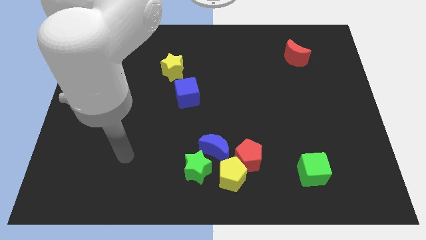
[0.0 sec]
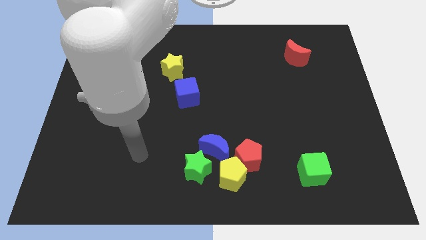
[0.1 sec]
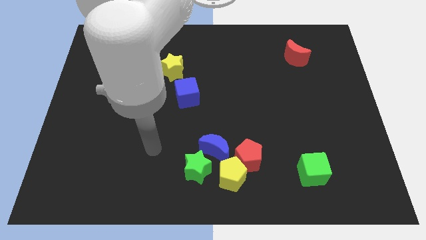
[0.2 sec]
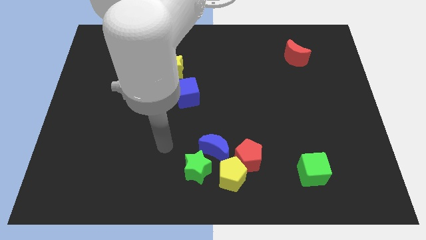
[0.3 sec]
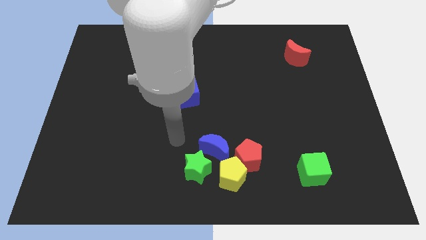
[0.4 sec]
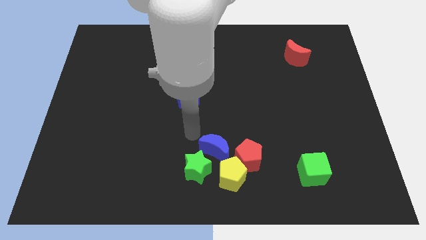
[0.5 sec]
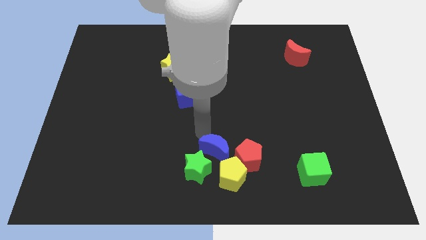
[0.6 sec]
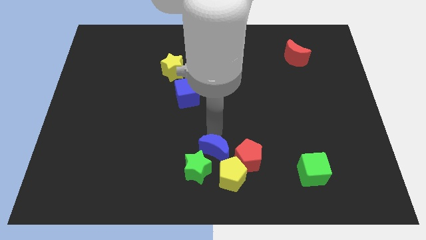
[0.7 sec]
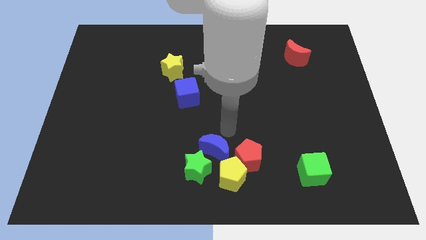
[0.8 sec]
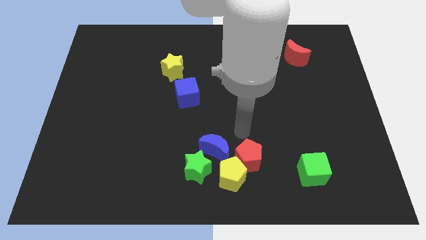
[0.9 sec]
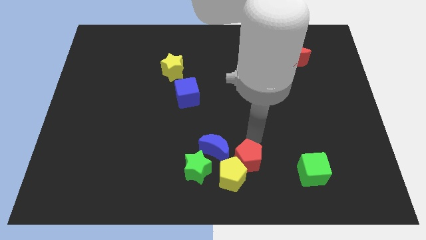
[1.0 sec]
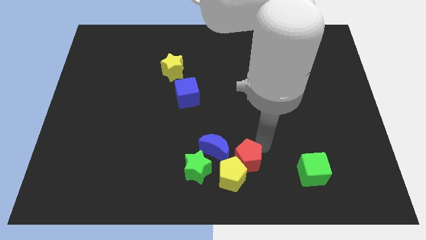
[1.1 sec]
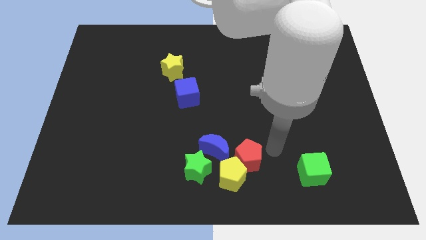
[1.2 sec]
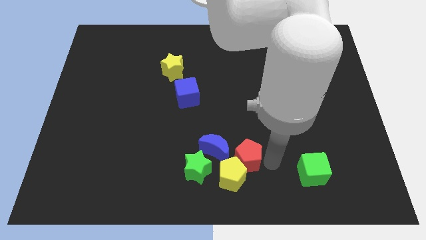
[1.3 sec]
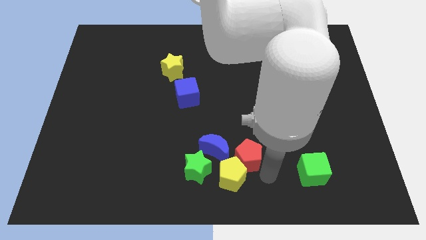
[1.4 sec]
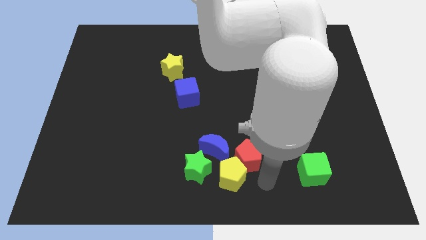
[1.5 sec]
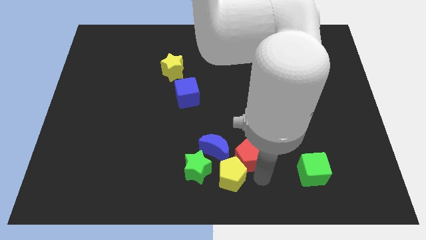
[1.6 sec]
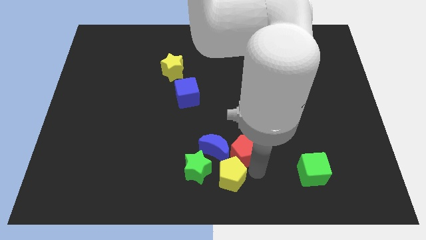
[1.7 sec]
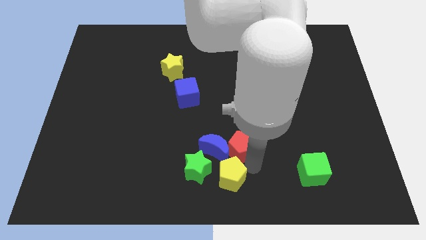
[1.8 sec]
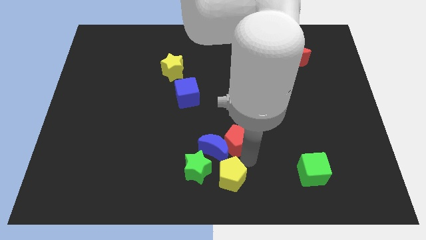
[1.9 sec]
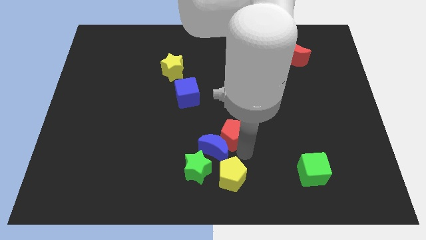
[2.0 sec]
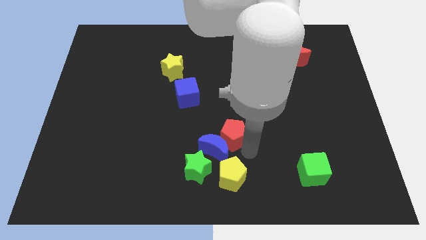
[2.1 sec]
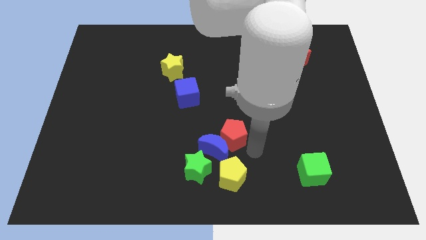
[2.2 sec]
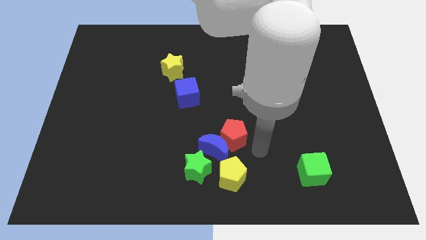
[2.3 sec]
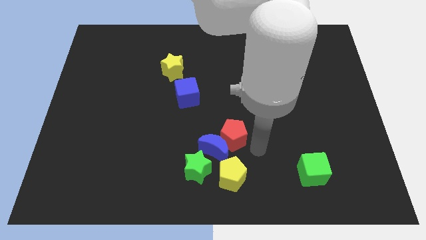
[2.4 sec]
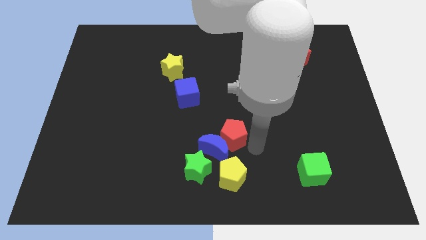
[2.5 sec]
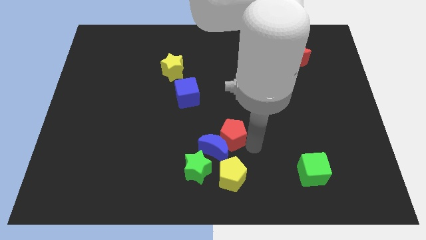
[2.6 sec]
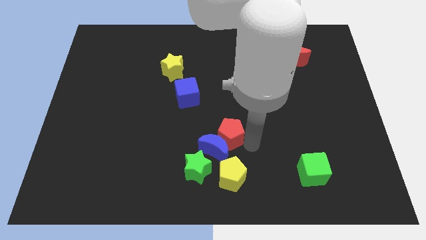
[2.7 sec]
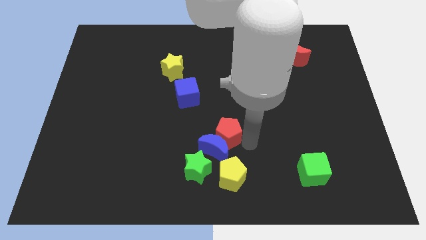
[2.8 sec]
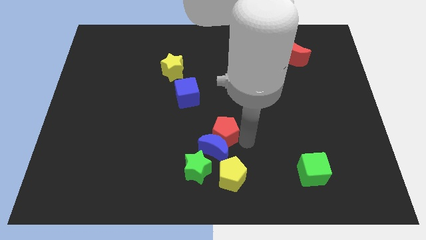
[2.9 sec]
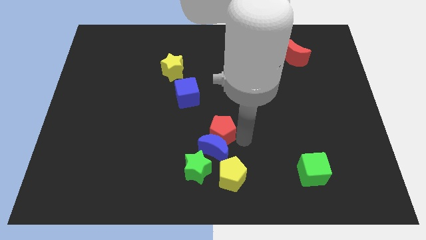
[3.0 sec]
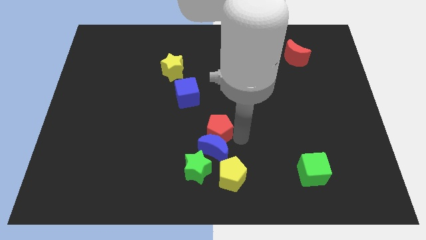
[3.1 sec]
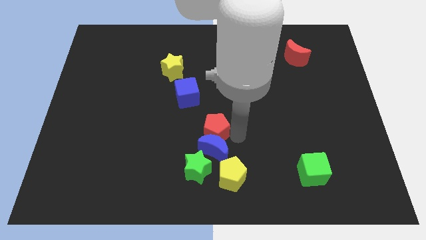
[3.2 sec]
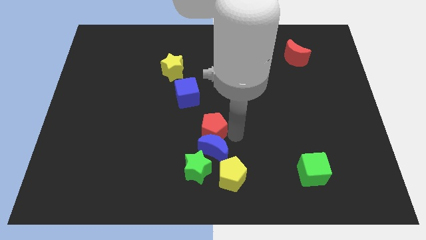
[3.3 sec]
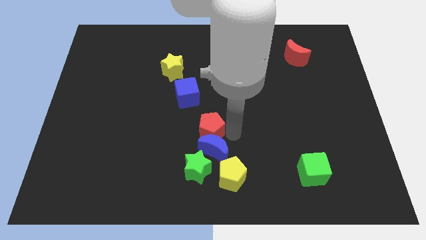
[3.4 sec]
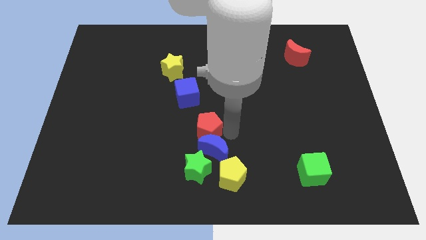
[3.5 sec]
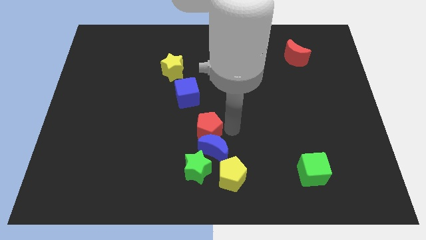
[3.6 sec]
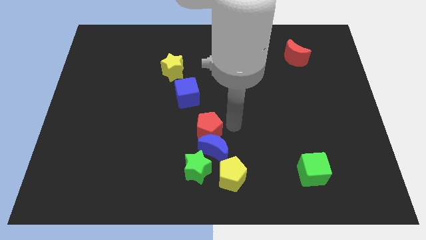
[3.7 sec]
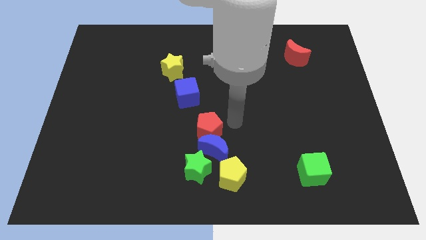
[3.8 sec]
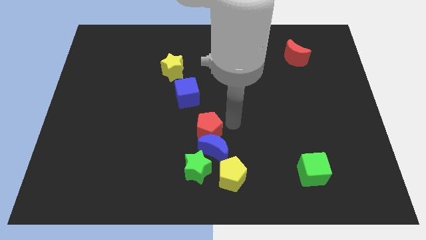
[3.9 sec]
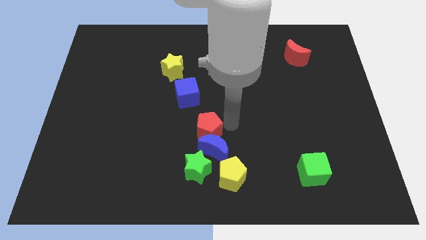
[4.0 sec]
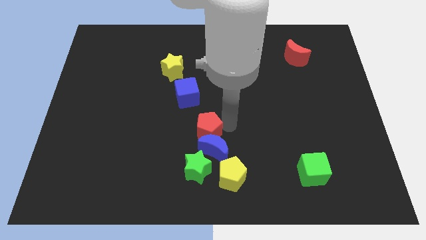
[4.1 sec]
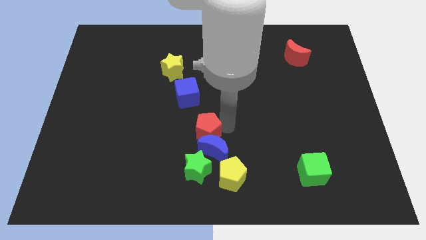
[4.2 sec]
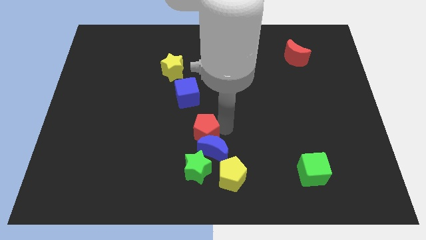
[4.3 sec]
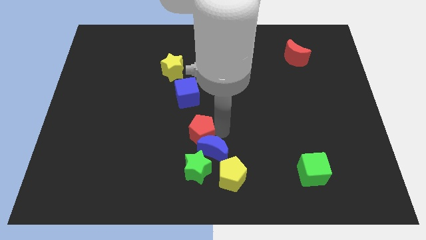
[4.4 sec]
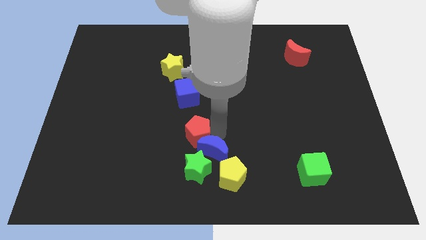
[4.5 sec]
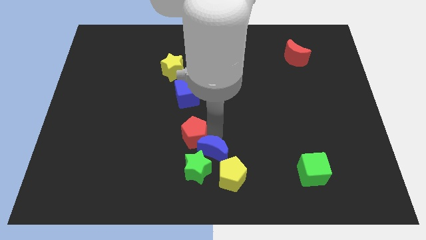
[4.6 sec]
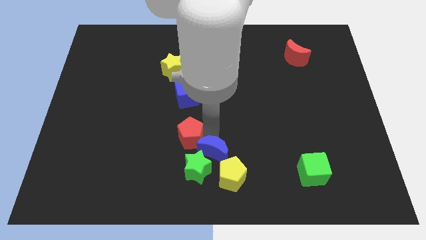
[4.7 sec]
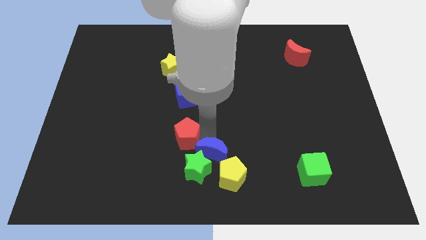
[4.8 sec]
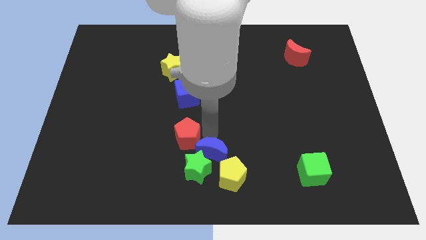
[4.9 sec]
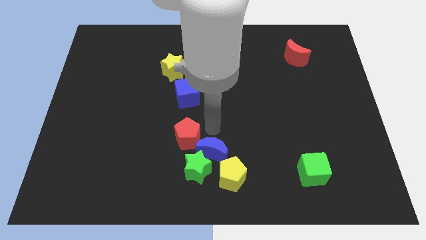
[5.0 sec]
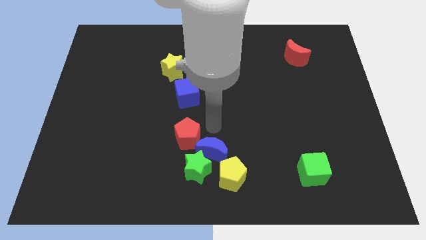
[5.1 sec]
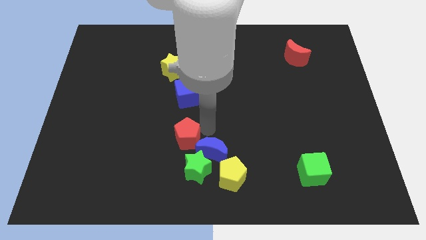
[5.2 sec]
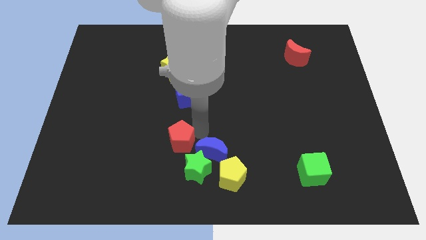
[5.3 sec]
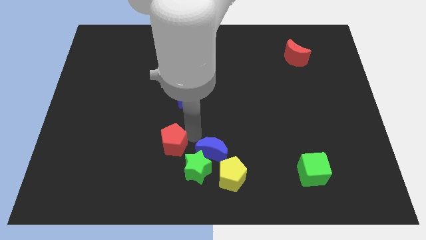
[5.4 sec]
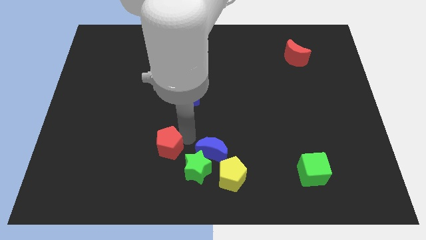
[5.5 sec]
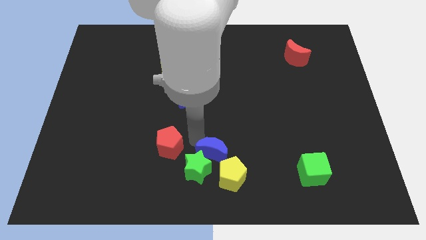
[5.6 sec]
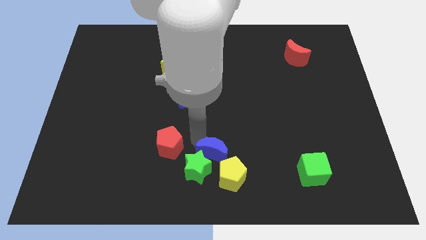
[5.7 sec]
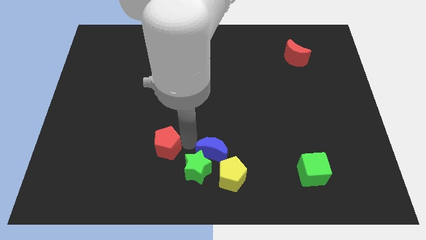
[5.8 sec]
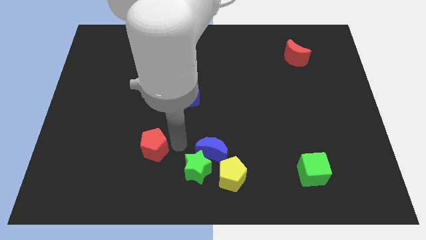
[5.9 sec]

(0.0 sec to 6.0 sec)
slide the red pentagon to the left

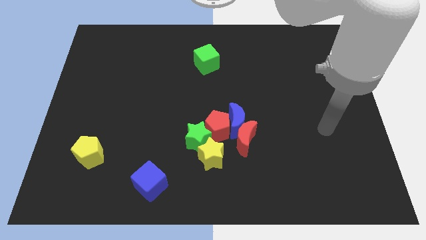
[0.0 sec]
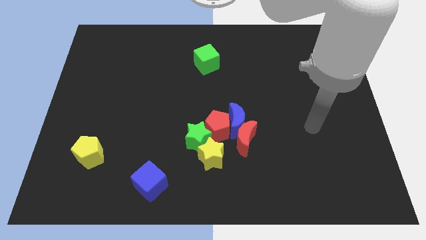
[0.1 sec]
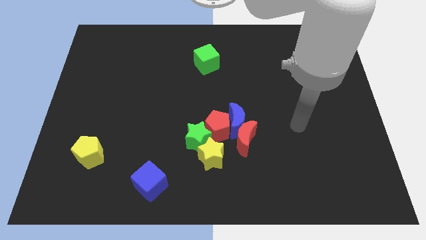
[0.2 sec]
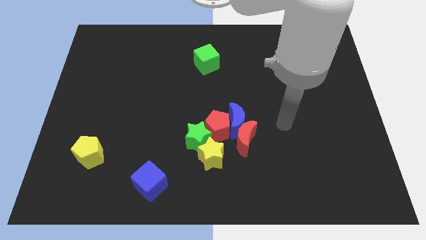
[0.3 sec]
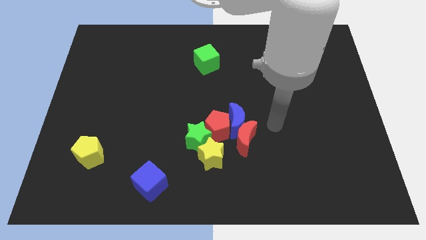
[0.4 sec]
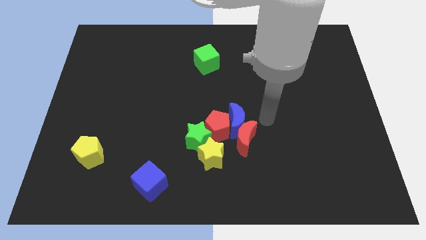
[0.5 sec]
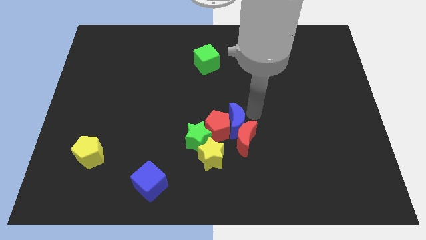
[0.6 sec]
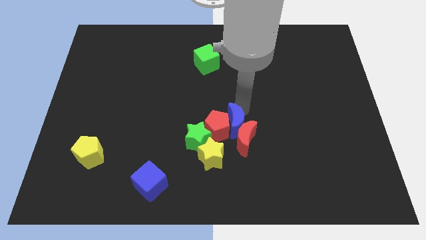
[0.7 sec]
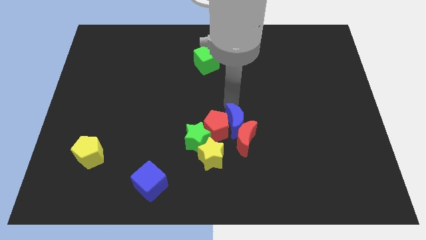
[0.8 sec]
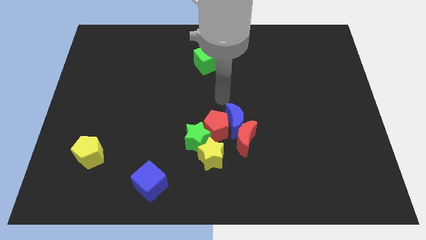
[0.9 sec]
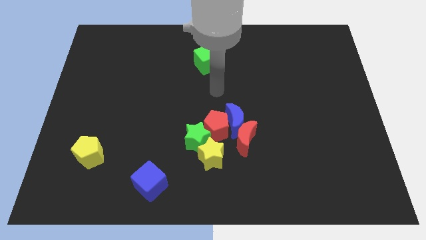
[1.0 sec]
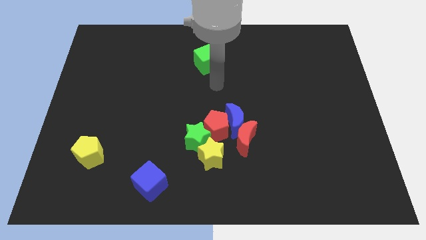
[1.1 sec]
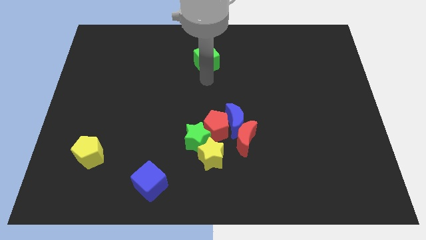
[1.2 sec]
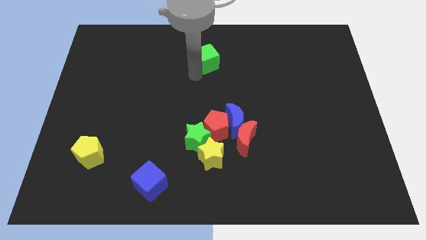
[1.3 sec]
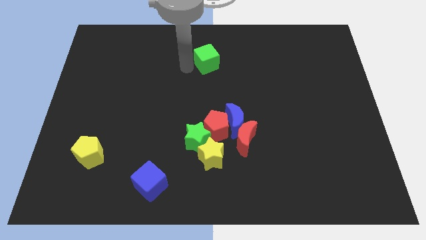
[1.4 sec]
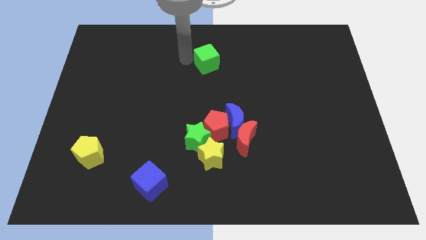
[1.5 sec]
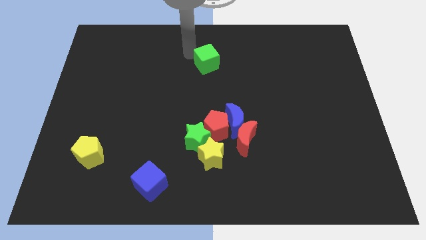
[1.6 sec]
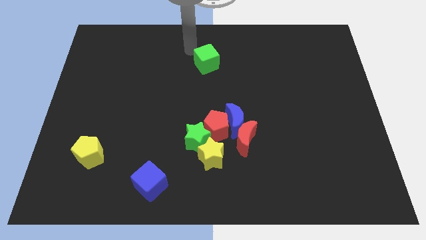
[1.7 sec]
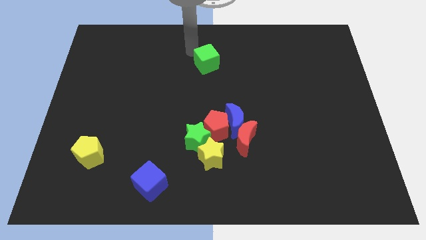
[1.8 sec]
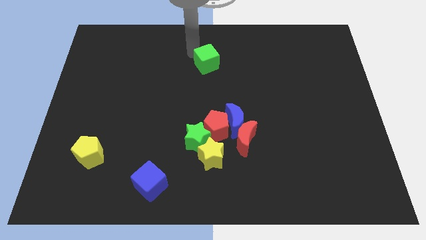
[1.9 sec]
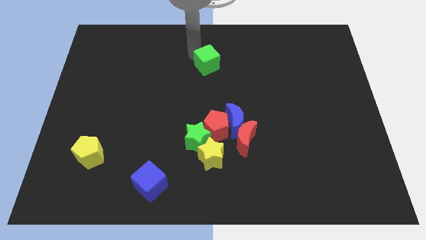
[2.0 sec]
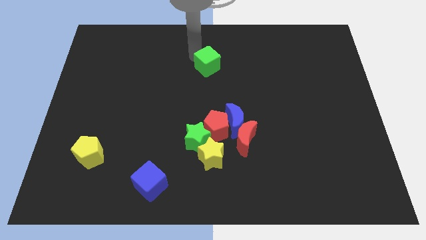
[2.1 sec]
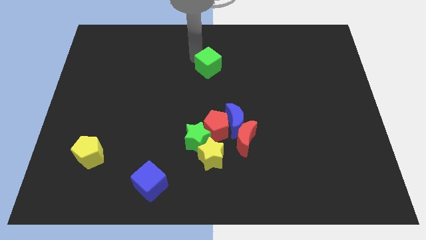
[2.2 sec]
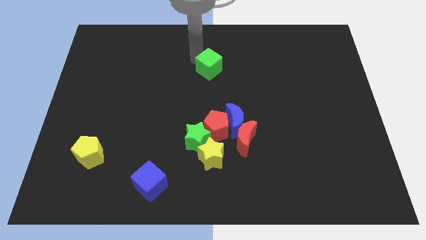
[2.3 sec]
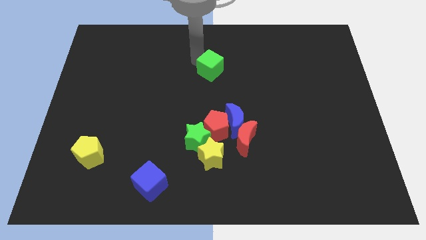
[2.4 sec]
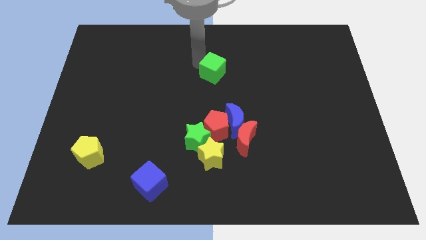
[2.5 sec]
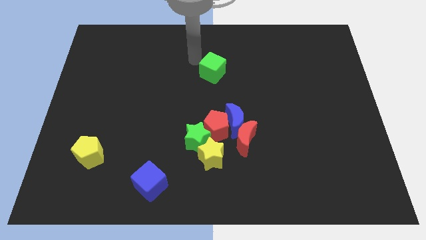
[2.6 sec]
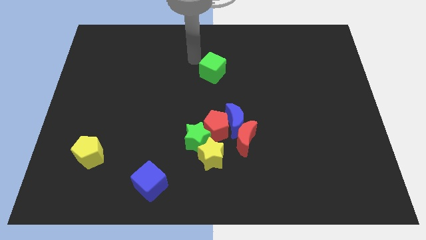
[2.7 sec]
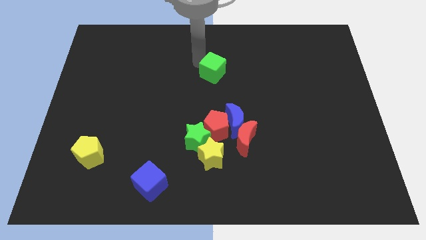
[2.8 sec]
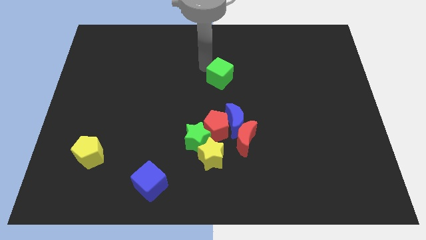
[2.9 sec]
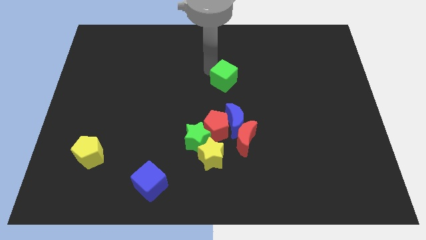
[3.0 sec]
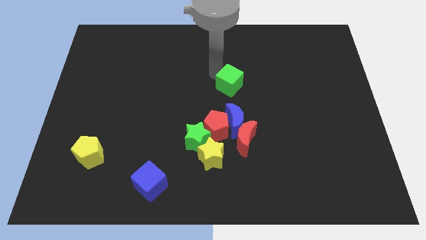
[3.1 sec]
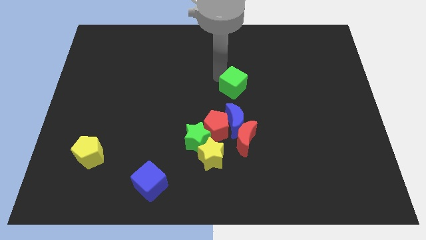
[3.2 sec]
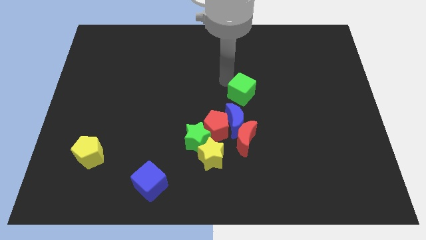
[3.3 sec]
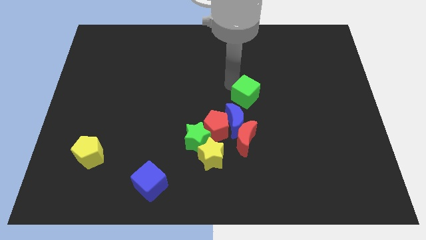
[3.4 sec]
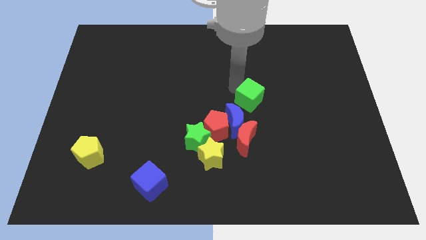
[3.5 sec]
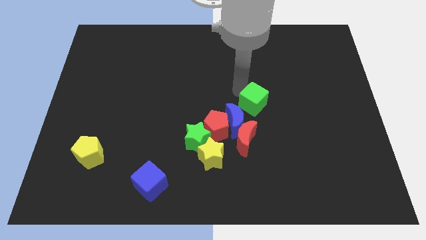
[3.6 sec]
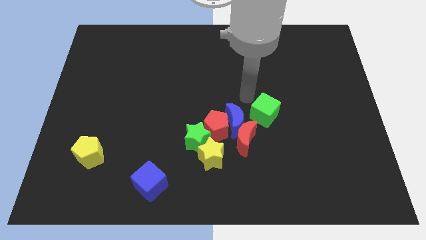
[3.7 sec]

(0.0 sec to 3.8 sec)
push the green cube diagonally downwards and right
